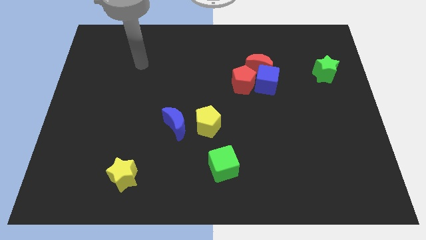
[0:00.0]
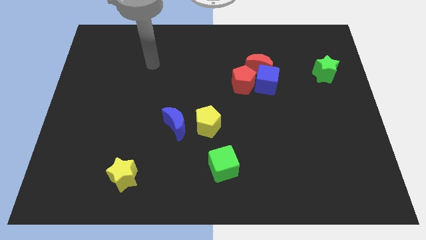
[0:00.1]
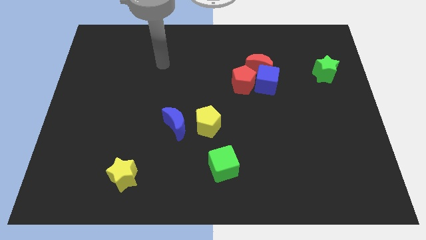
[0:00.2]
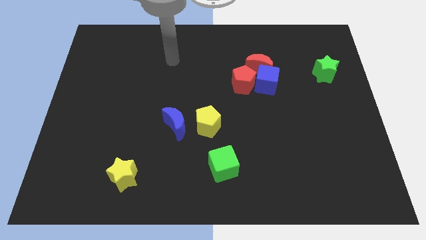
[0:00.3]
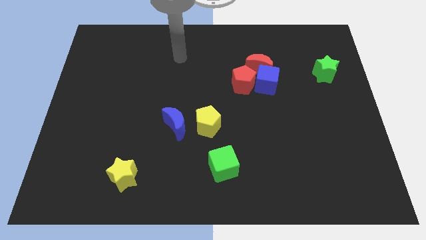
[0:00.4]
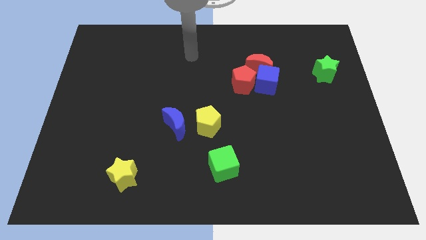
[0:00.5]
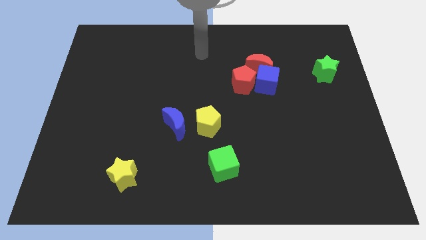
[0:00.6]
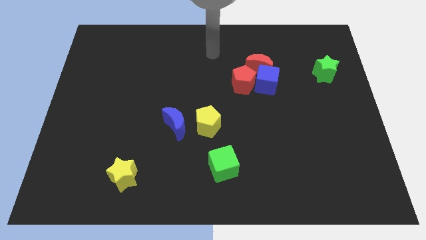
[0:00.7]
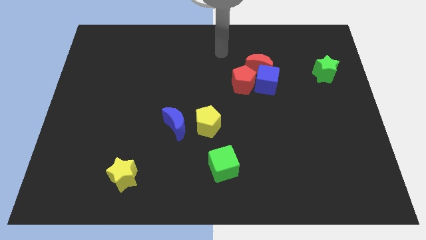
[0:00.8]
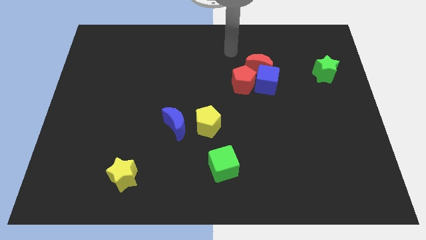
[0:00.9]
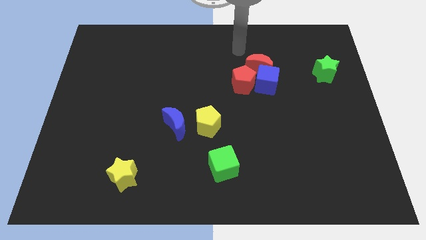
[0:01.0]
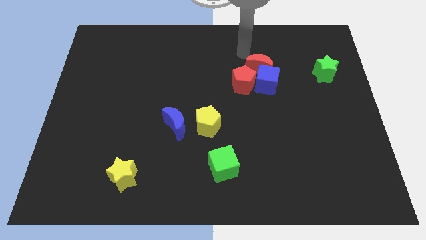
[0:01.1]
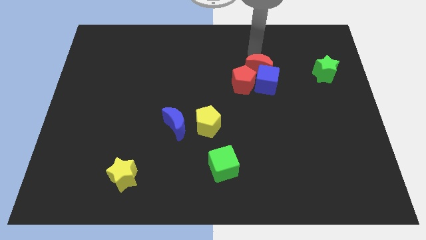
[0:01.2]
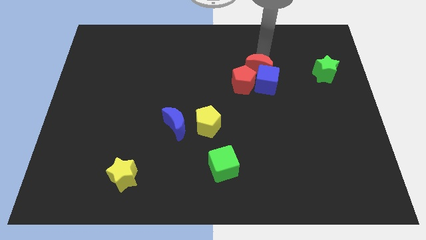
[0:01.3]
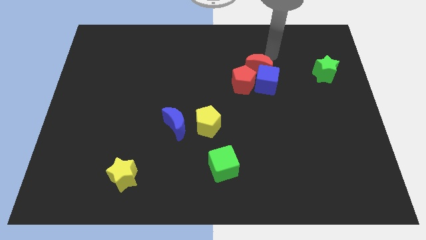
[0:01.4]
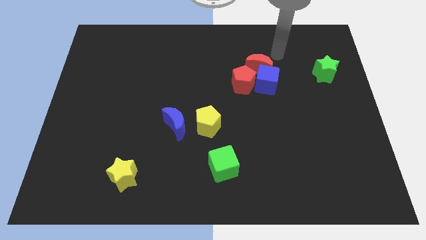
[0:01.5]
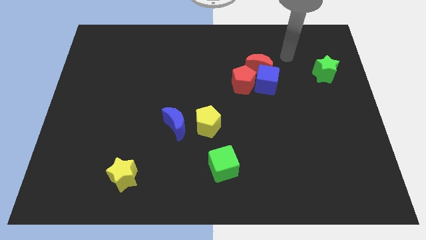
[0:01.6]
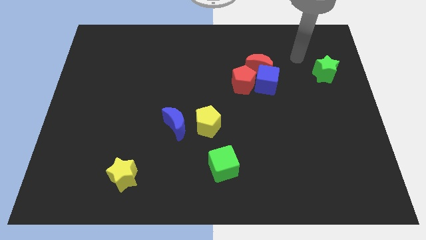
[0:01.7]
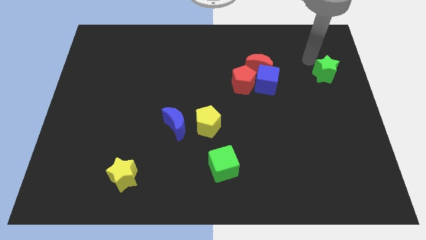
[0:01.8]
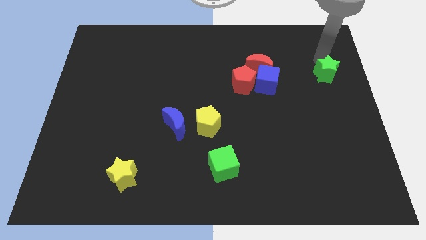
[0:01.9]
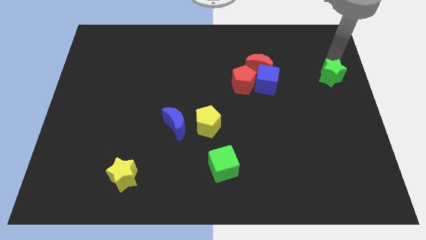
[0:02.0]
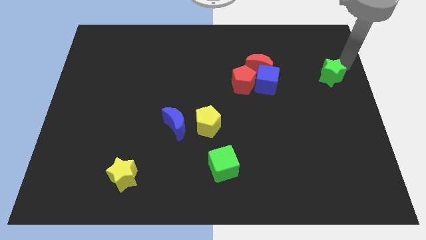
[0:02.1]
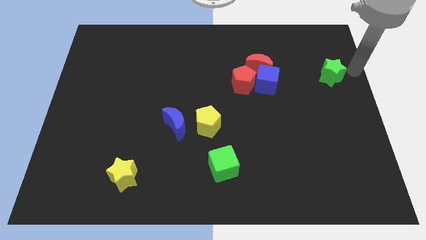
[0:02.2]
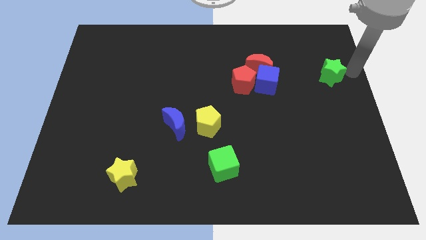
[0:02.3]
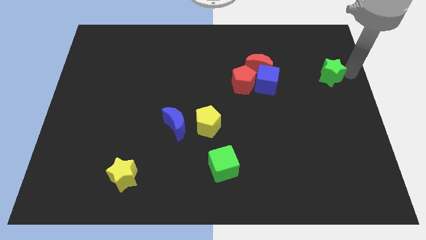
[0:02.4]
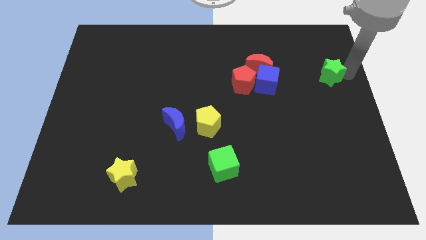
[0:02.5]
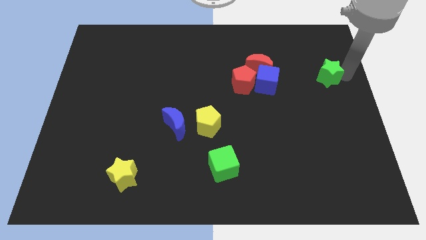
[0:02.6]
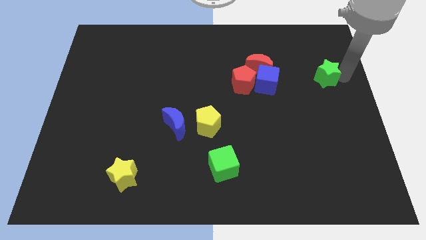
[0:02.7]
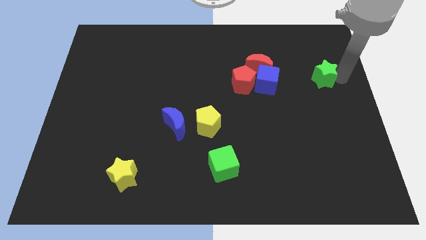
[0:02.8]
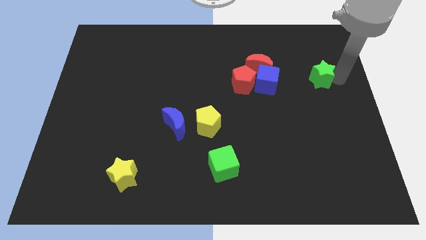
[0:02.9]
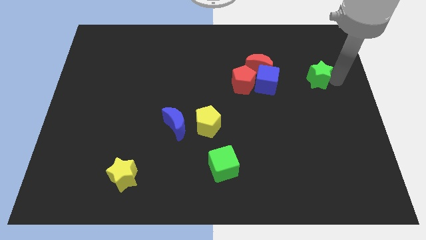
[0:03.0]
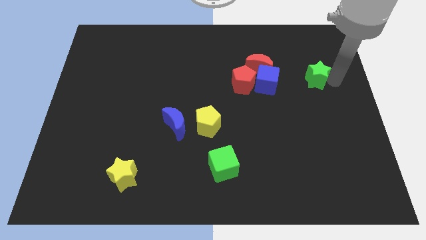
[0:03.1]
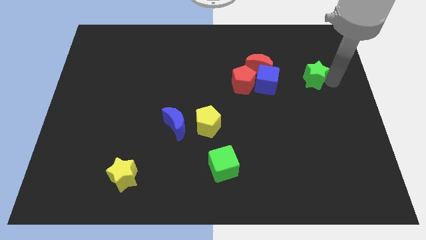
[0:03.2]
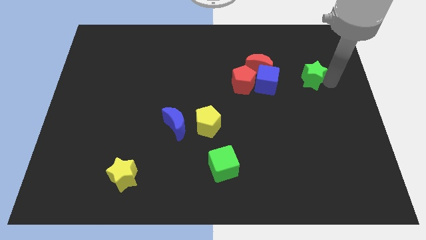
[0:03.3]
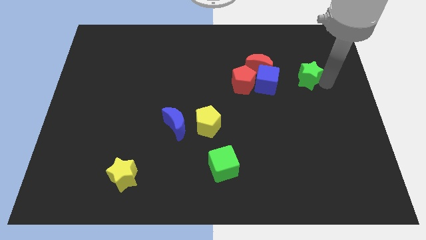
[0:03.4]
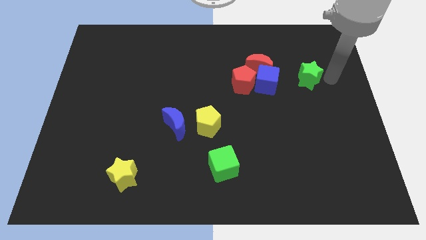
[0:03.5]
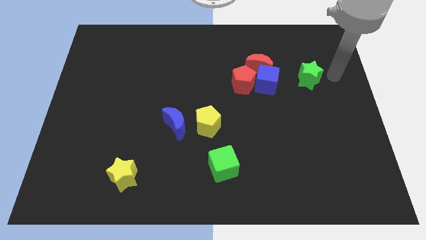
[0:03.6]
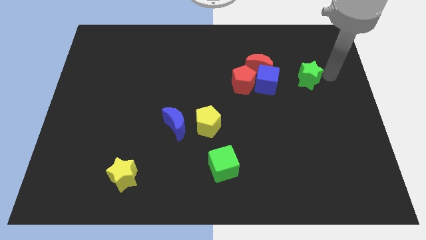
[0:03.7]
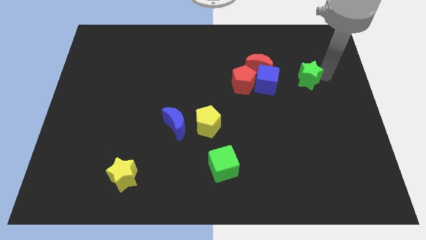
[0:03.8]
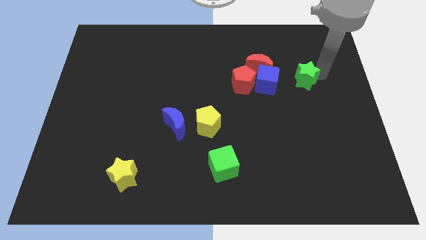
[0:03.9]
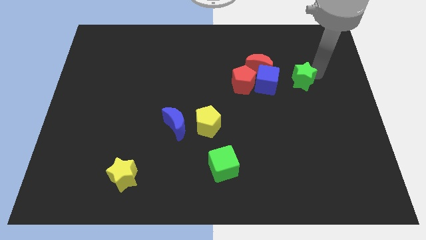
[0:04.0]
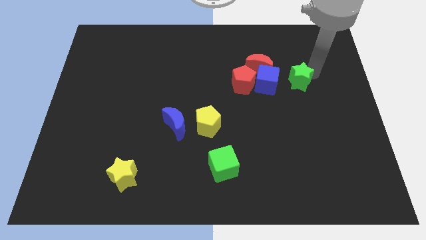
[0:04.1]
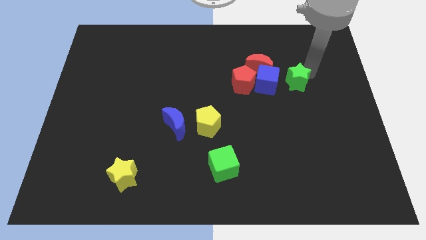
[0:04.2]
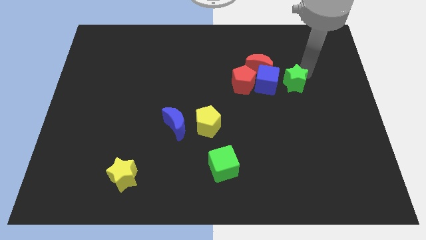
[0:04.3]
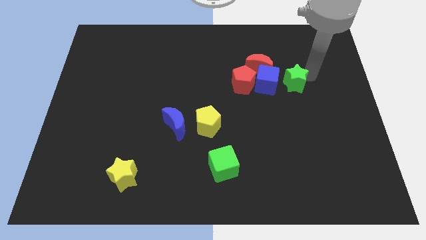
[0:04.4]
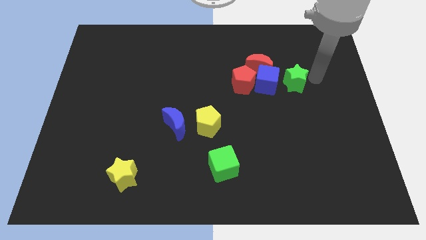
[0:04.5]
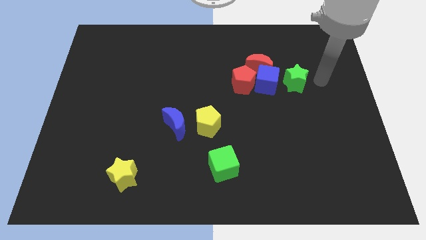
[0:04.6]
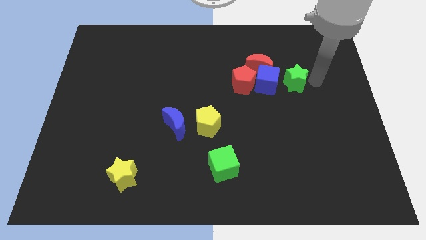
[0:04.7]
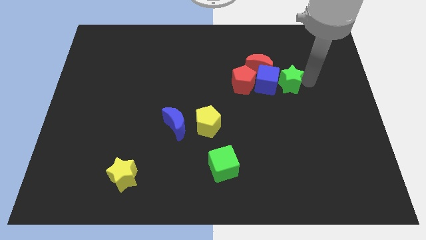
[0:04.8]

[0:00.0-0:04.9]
move the green star to the blue cube

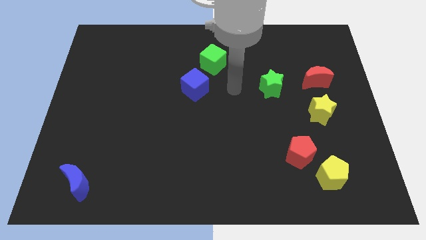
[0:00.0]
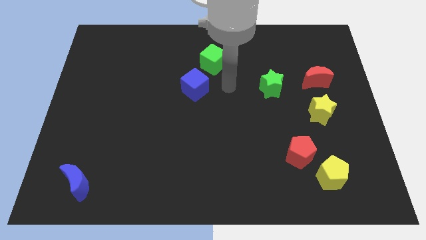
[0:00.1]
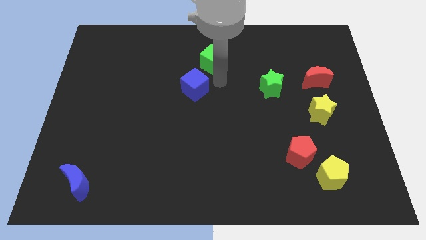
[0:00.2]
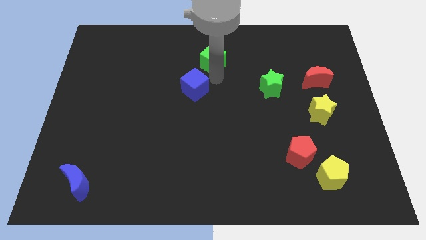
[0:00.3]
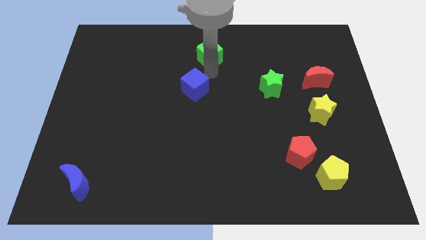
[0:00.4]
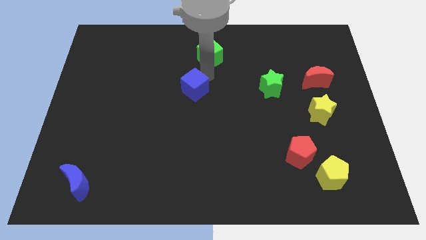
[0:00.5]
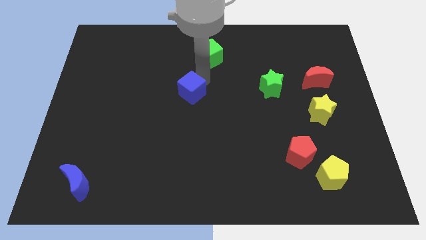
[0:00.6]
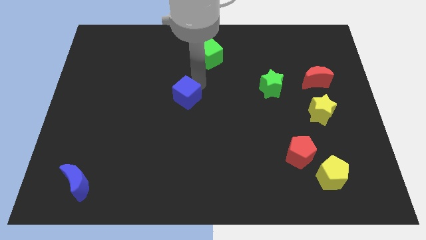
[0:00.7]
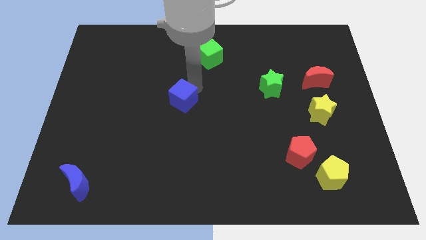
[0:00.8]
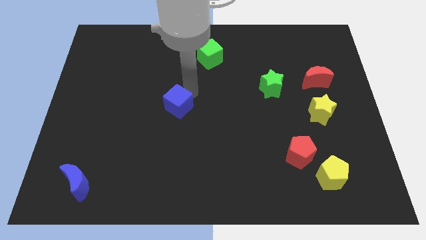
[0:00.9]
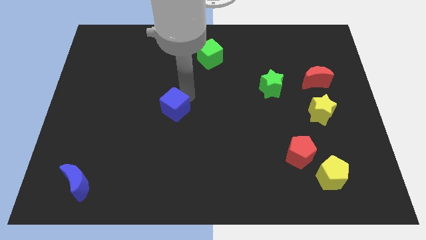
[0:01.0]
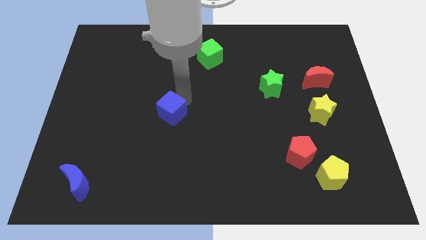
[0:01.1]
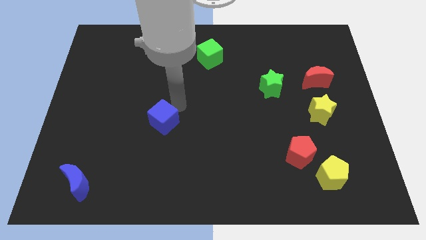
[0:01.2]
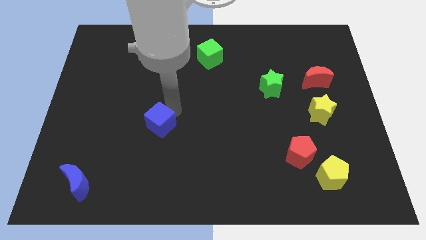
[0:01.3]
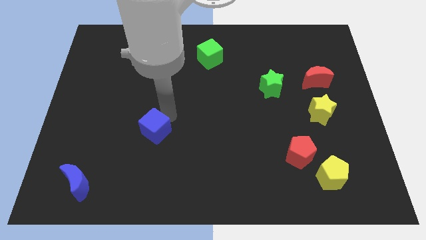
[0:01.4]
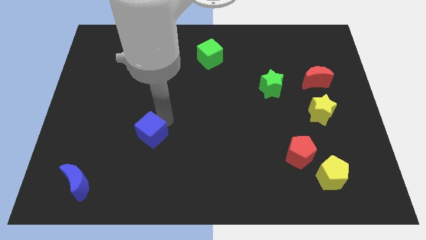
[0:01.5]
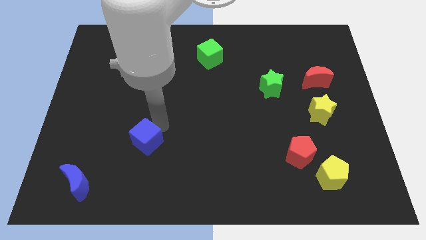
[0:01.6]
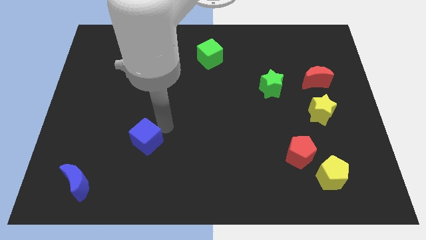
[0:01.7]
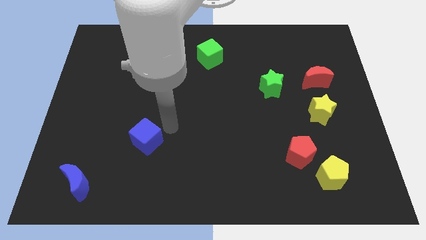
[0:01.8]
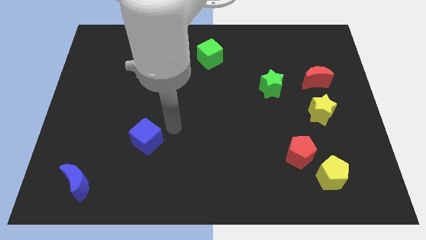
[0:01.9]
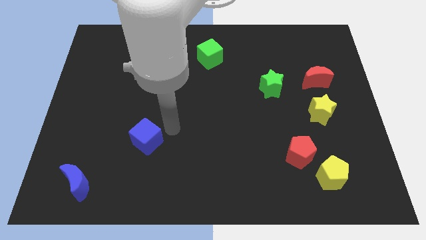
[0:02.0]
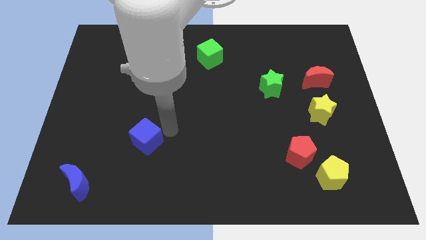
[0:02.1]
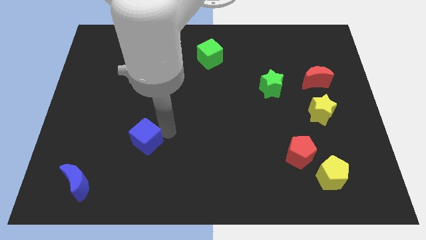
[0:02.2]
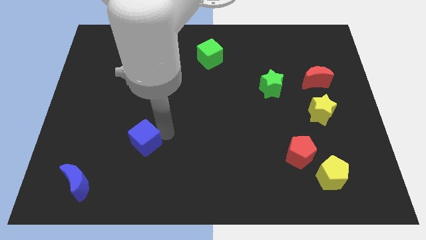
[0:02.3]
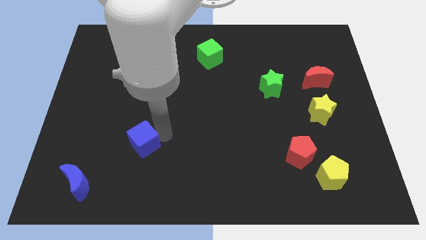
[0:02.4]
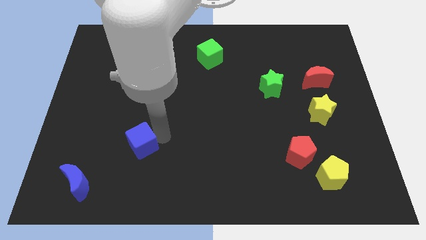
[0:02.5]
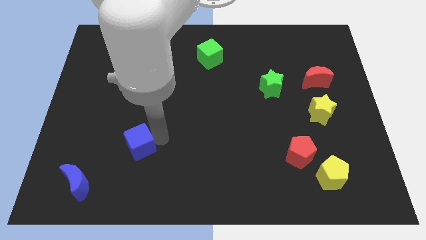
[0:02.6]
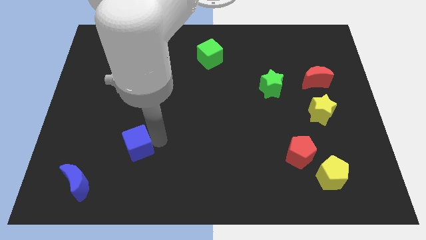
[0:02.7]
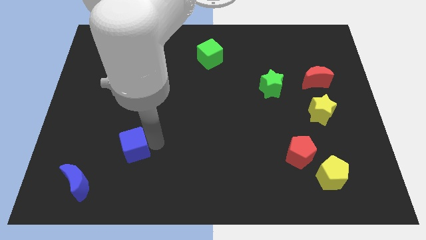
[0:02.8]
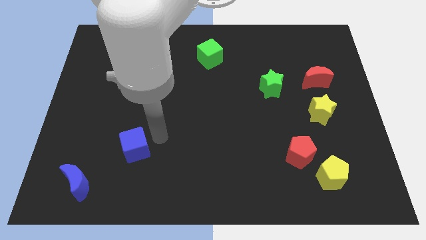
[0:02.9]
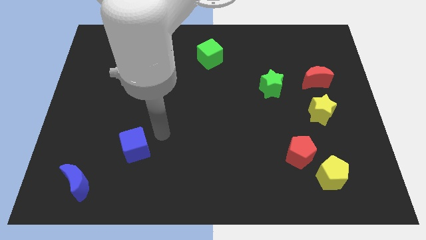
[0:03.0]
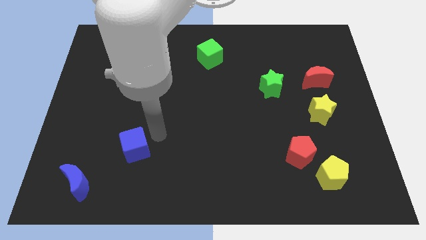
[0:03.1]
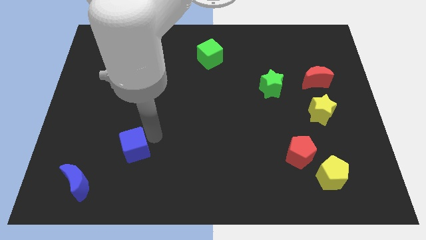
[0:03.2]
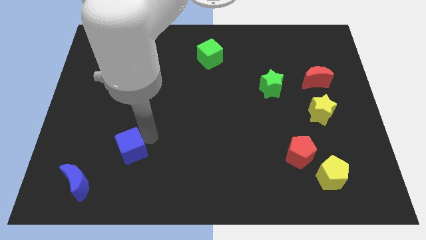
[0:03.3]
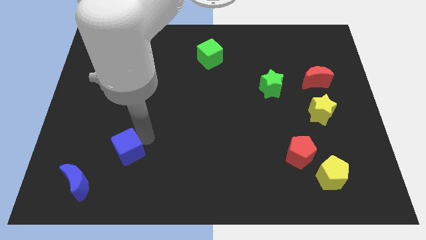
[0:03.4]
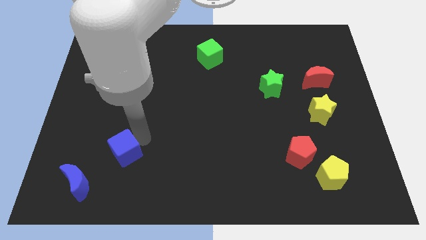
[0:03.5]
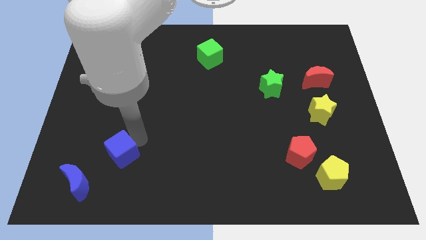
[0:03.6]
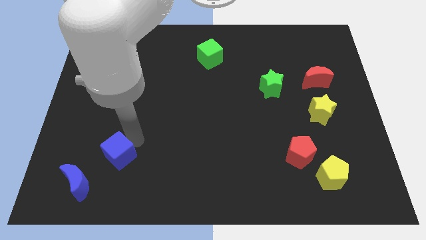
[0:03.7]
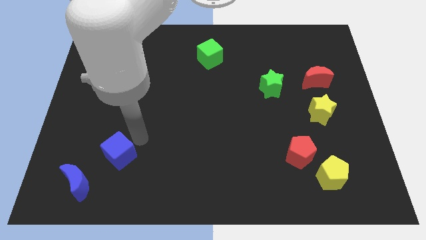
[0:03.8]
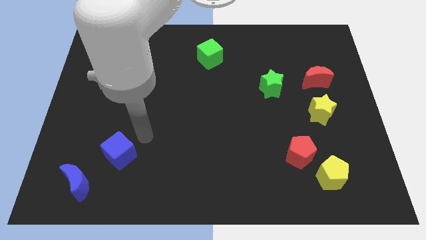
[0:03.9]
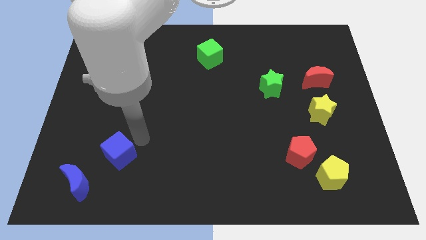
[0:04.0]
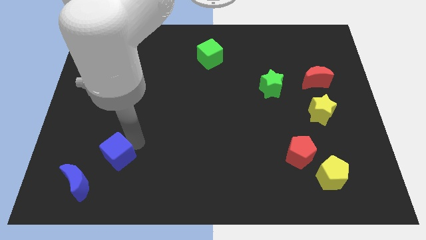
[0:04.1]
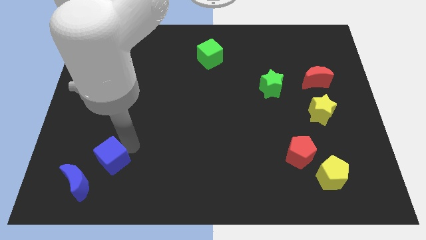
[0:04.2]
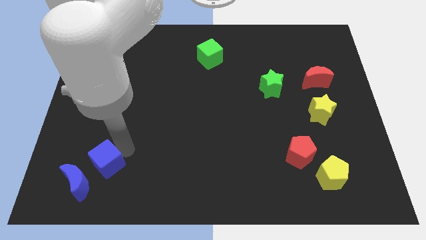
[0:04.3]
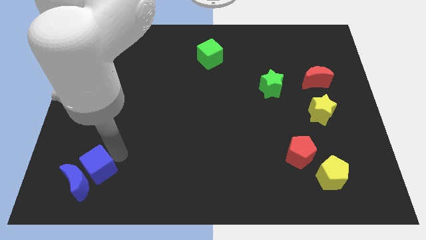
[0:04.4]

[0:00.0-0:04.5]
push the blue cube next to the blue moon
